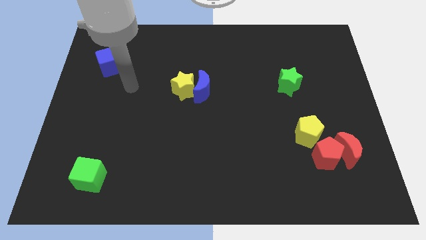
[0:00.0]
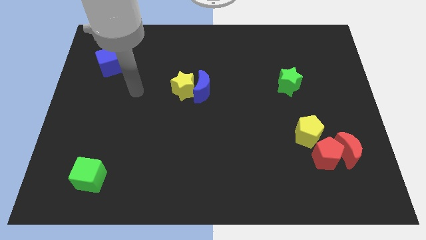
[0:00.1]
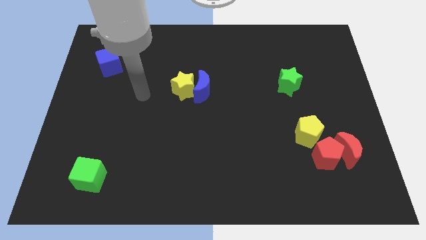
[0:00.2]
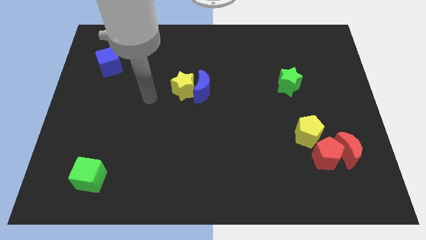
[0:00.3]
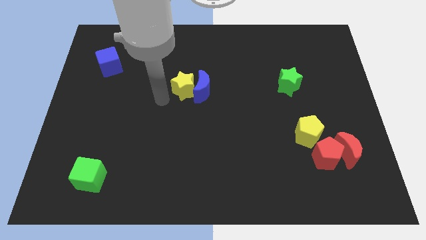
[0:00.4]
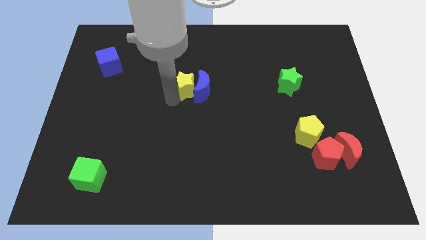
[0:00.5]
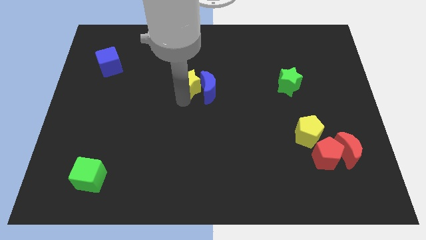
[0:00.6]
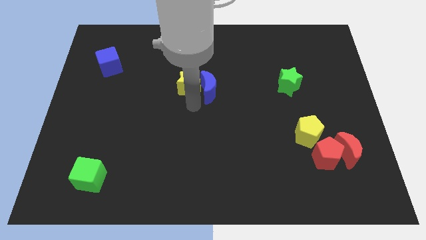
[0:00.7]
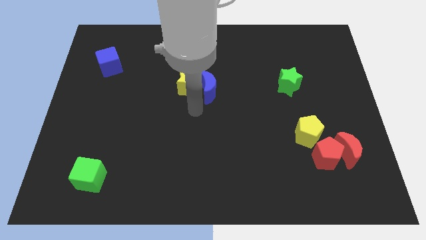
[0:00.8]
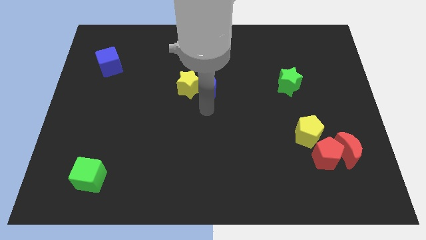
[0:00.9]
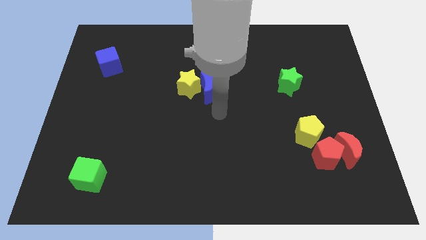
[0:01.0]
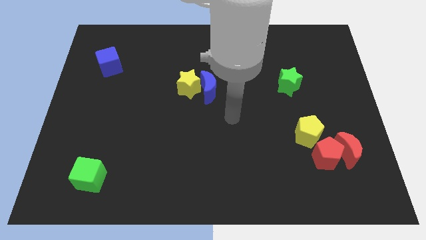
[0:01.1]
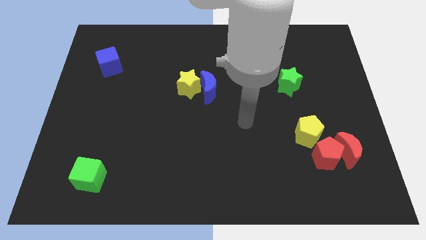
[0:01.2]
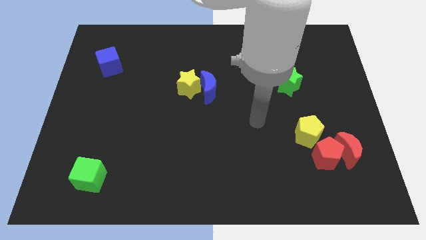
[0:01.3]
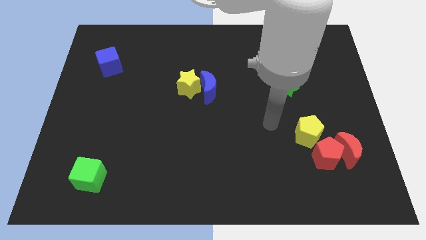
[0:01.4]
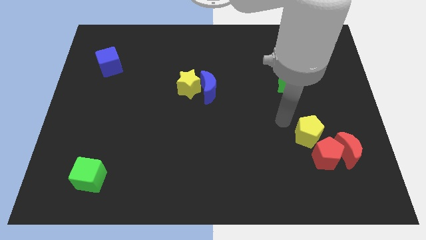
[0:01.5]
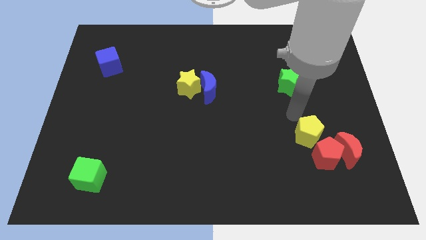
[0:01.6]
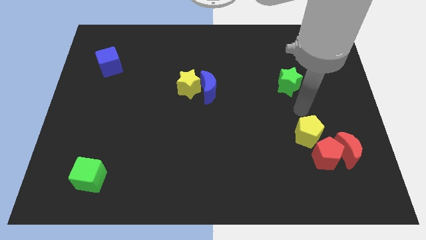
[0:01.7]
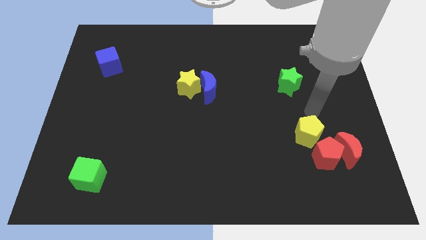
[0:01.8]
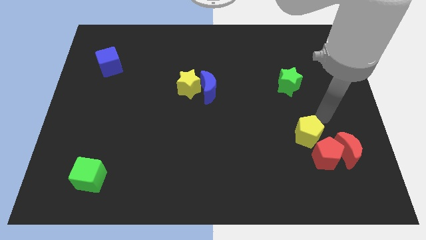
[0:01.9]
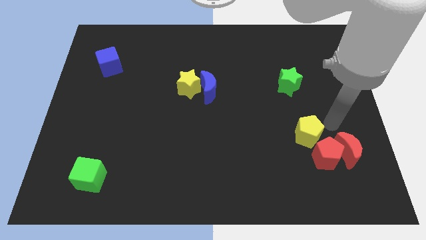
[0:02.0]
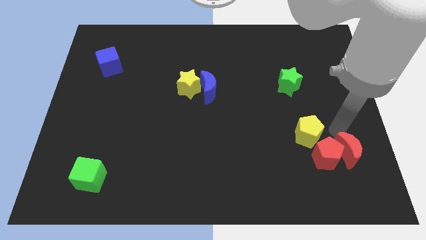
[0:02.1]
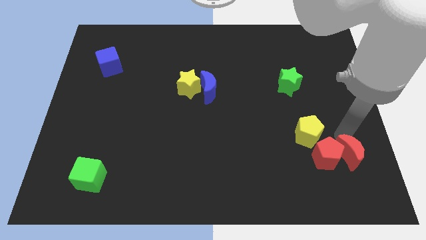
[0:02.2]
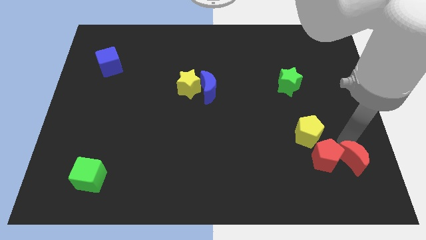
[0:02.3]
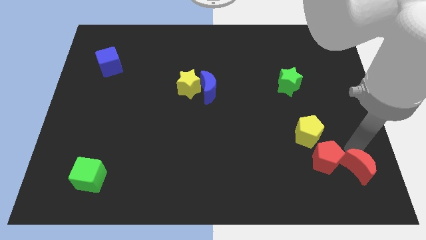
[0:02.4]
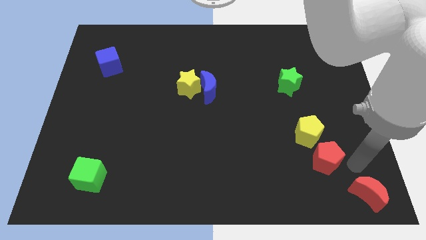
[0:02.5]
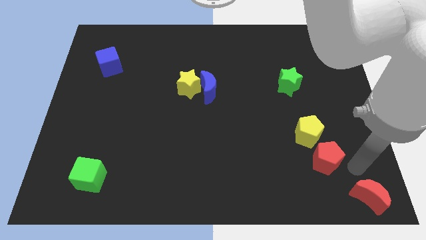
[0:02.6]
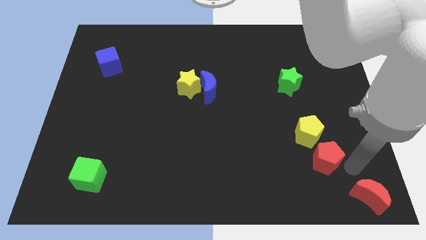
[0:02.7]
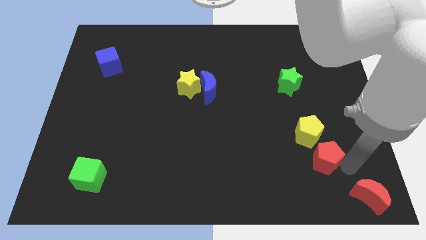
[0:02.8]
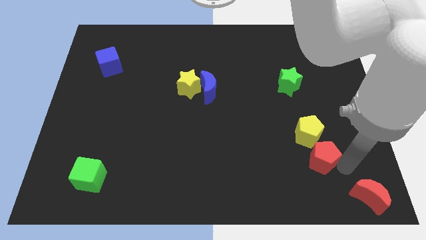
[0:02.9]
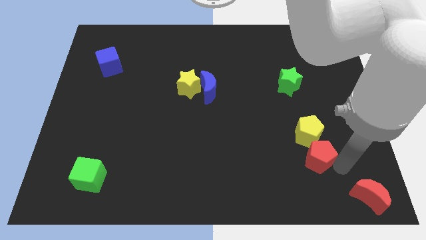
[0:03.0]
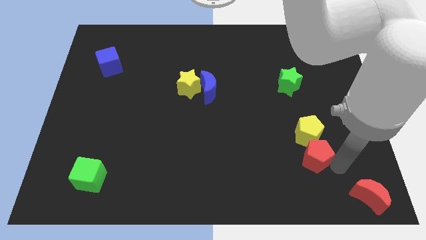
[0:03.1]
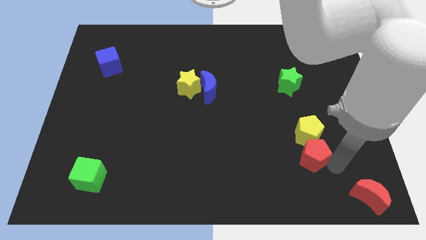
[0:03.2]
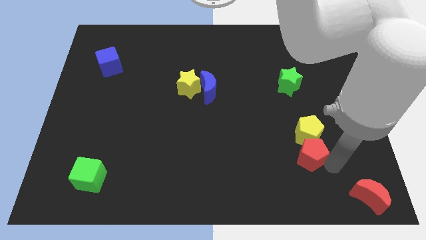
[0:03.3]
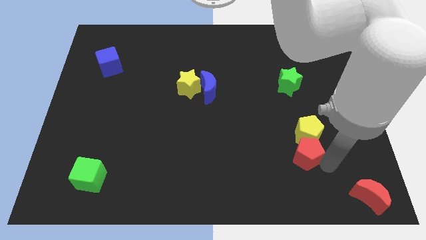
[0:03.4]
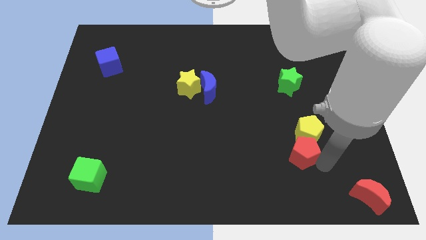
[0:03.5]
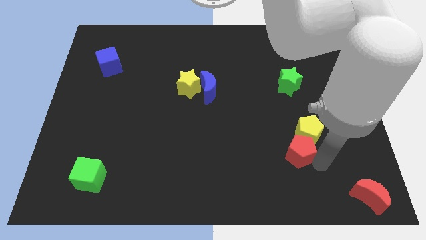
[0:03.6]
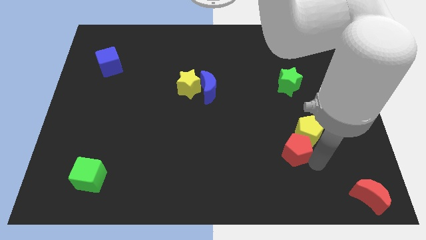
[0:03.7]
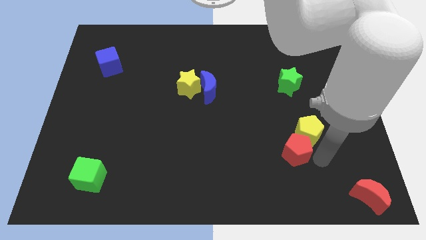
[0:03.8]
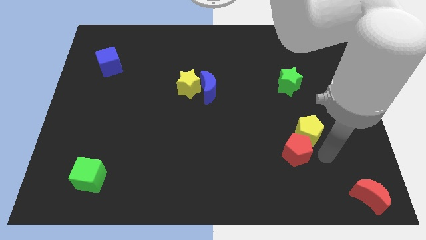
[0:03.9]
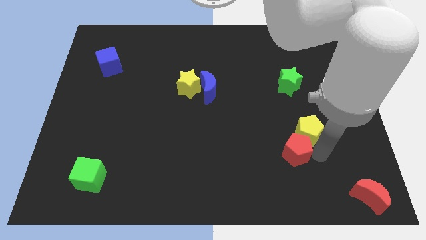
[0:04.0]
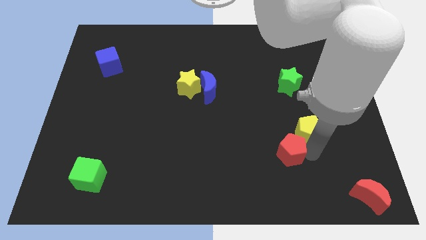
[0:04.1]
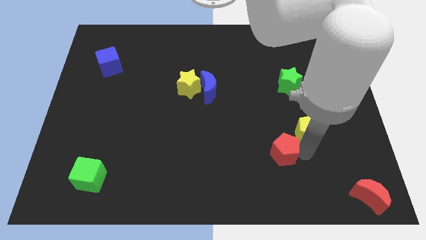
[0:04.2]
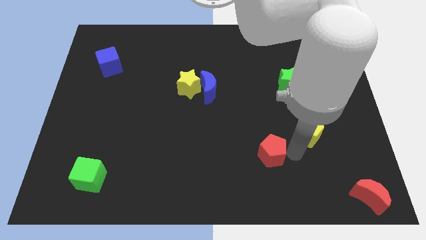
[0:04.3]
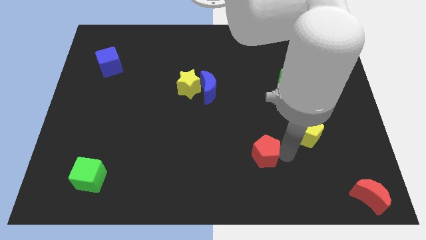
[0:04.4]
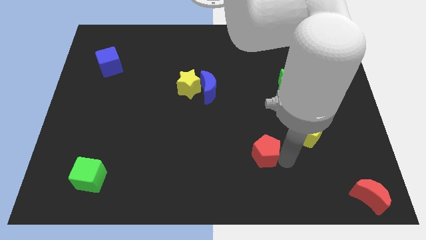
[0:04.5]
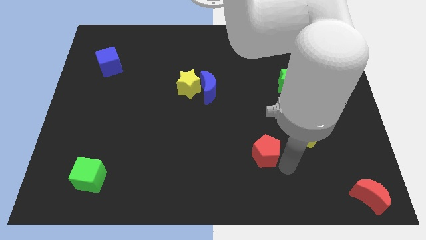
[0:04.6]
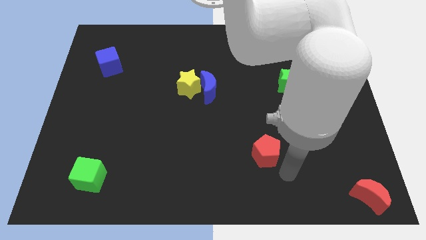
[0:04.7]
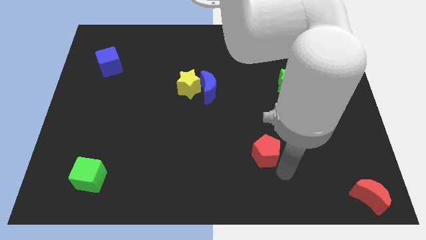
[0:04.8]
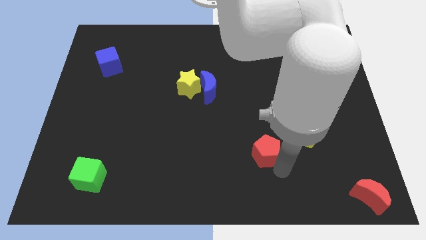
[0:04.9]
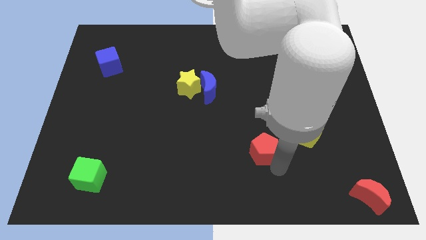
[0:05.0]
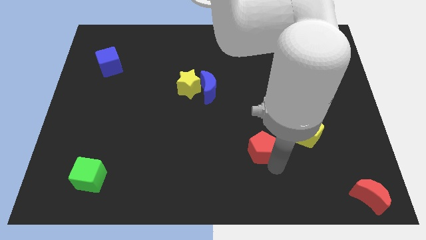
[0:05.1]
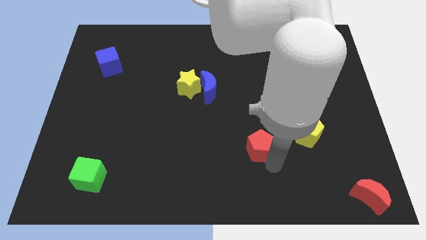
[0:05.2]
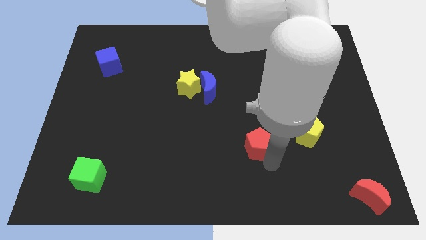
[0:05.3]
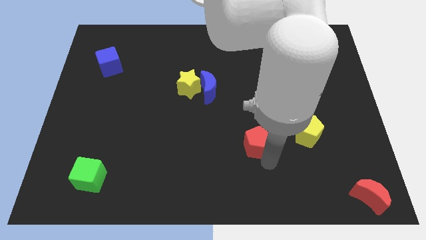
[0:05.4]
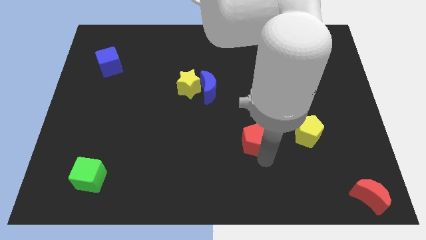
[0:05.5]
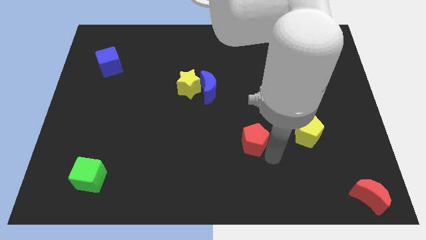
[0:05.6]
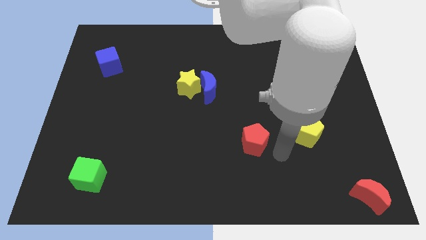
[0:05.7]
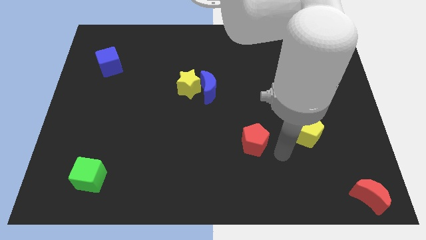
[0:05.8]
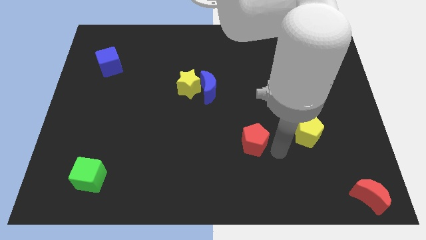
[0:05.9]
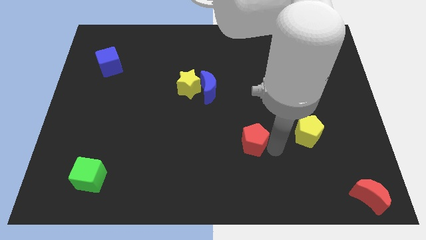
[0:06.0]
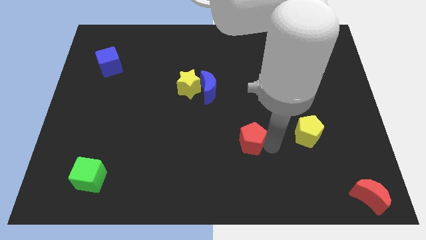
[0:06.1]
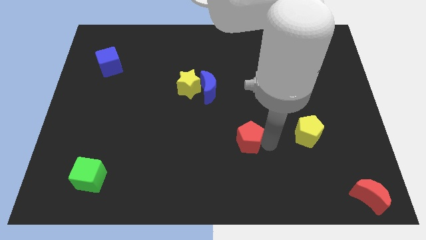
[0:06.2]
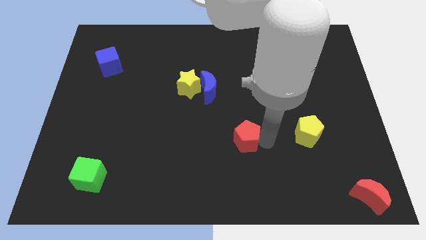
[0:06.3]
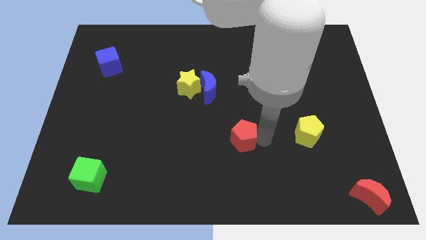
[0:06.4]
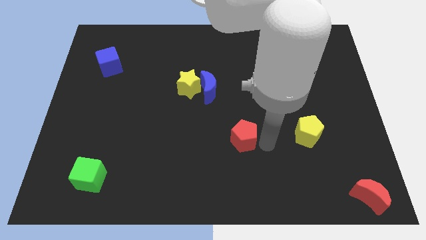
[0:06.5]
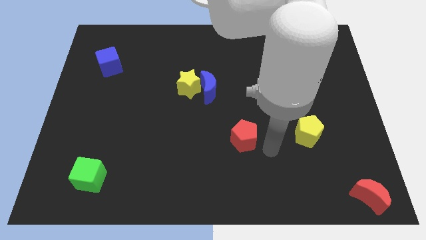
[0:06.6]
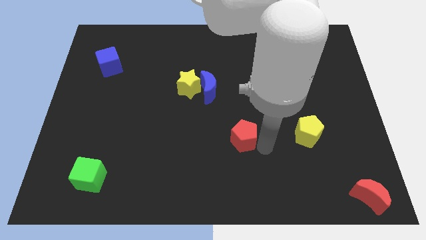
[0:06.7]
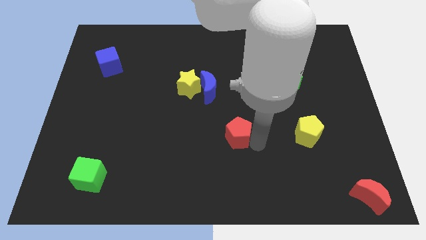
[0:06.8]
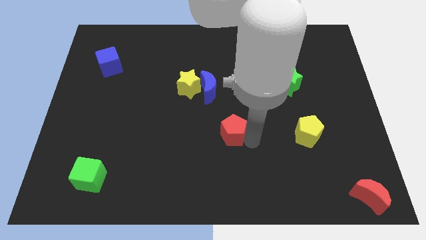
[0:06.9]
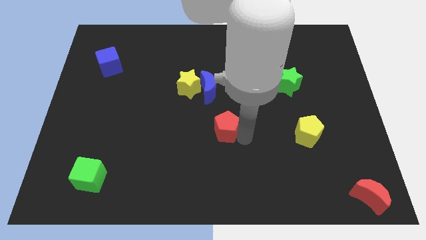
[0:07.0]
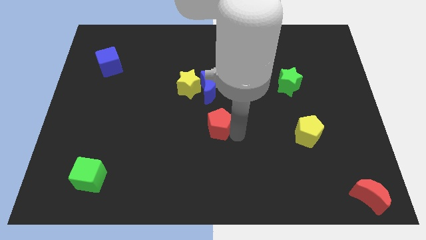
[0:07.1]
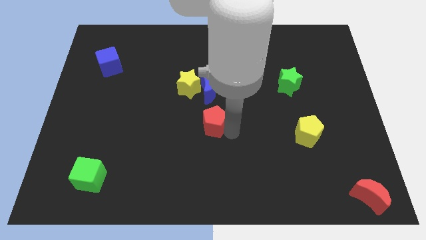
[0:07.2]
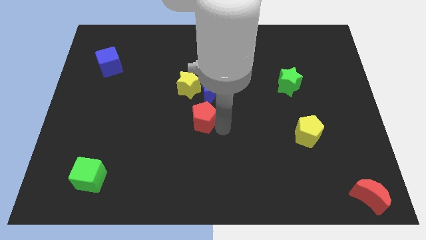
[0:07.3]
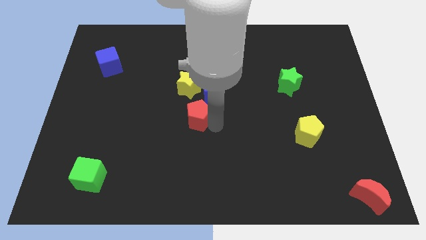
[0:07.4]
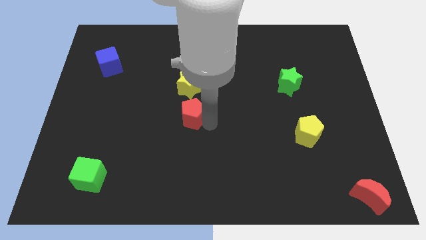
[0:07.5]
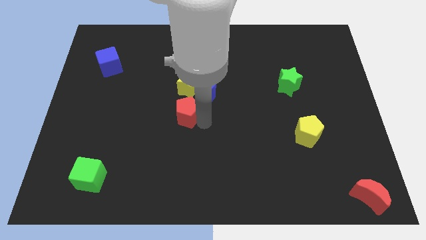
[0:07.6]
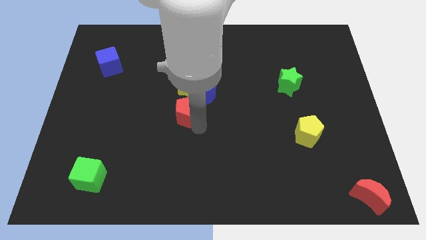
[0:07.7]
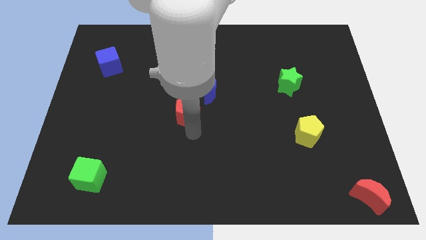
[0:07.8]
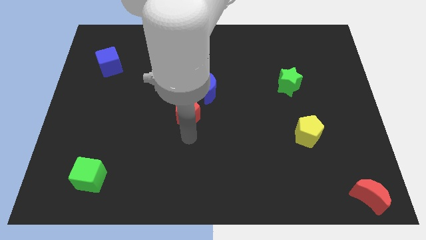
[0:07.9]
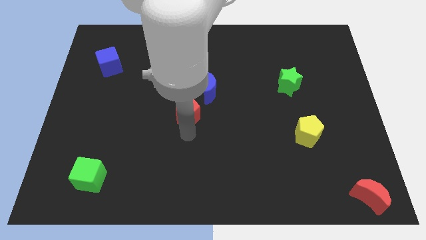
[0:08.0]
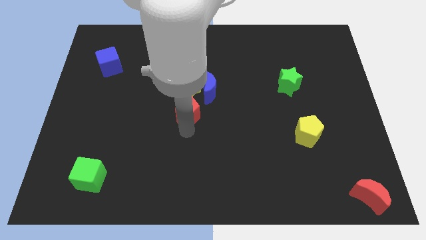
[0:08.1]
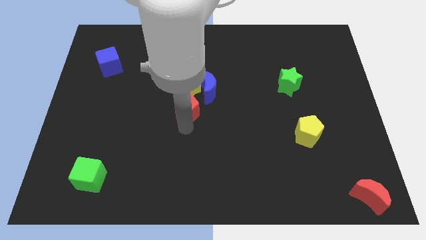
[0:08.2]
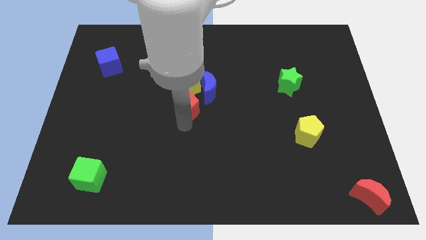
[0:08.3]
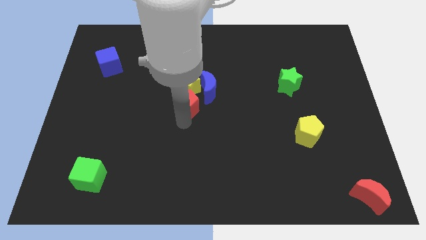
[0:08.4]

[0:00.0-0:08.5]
put the red pentagon close to the yellow star
